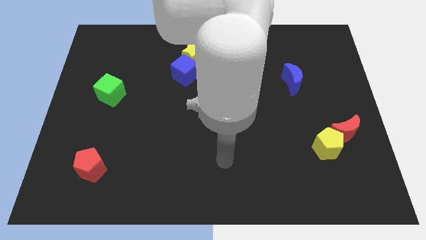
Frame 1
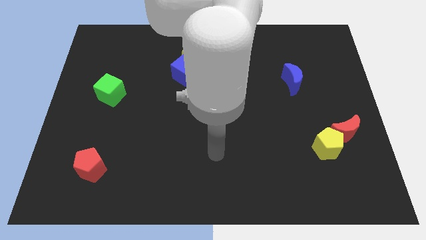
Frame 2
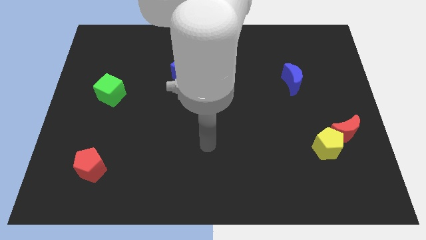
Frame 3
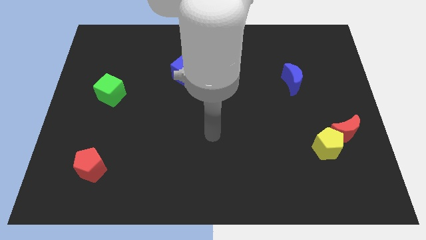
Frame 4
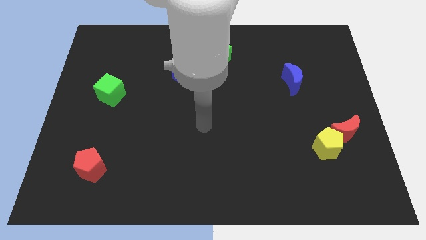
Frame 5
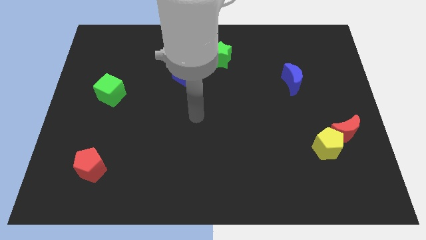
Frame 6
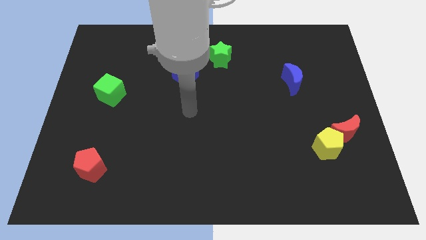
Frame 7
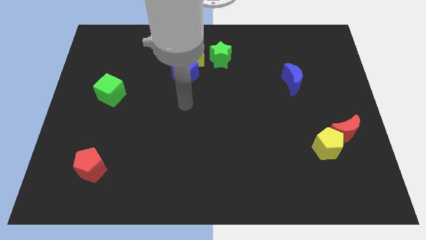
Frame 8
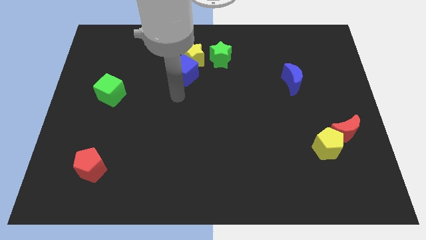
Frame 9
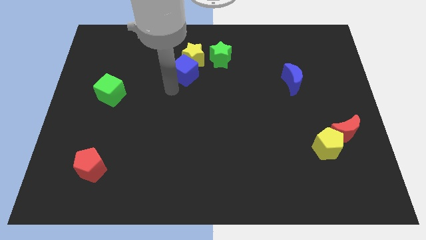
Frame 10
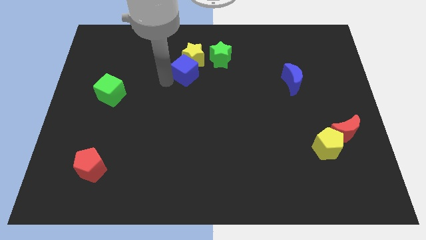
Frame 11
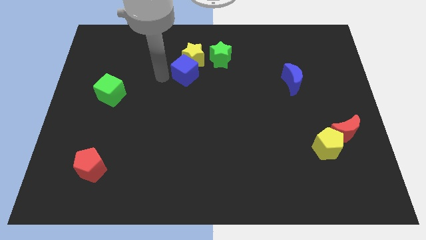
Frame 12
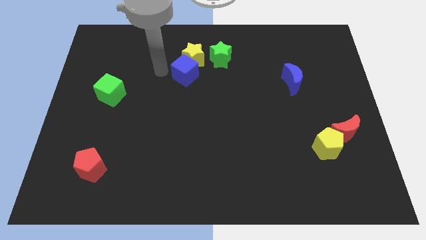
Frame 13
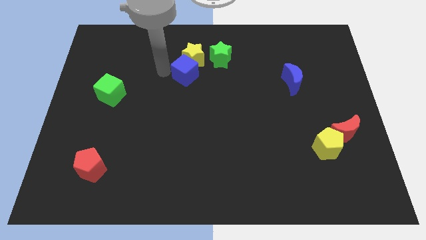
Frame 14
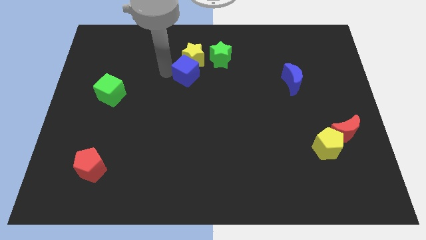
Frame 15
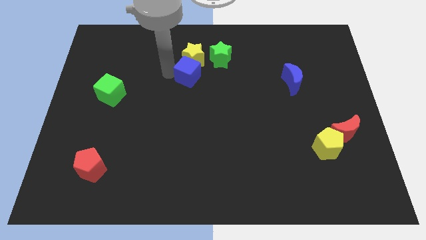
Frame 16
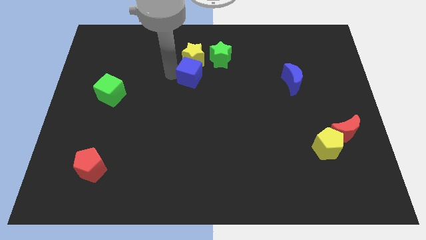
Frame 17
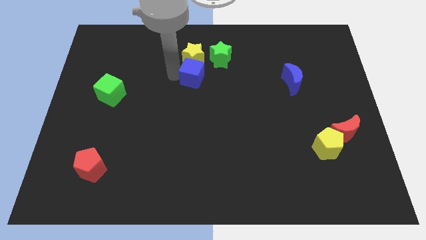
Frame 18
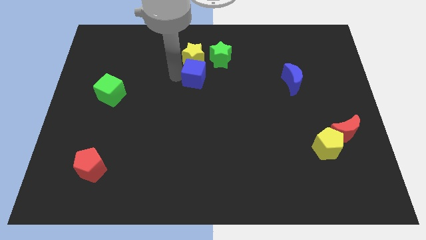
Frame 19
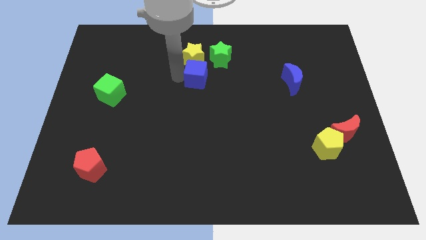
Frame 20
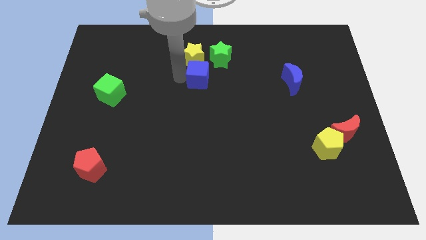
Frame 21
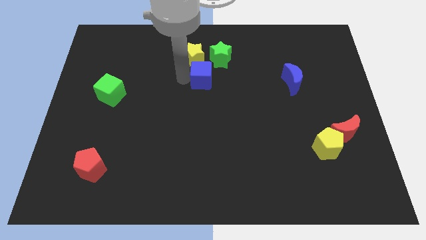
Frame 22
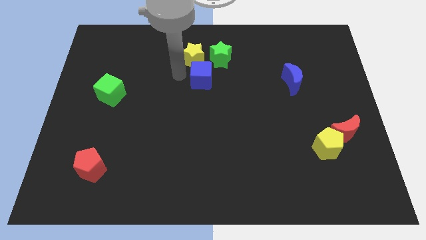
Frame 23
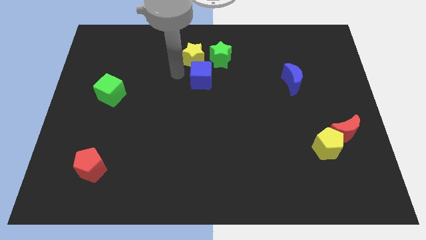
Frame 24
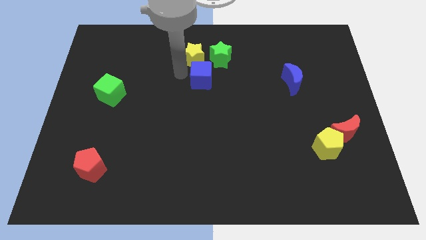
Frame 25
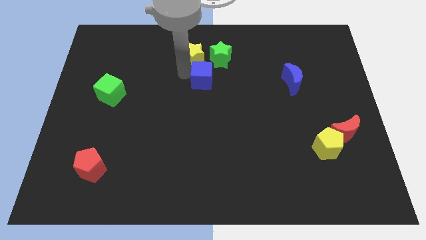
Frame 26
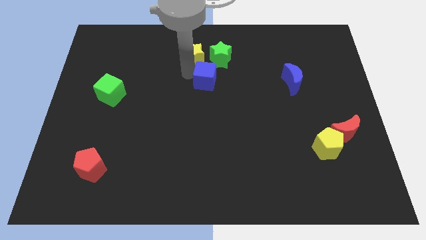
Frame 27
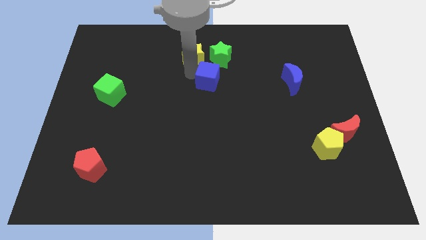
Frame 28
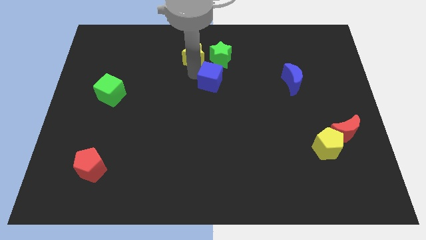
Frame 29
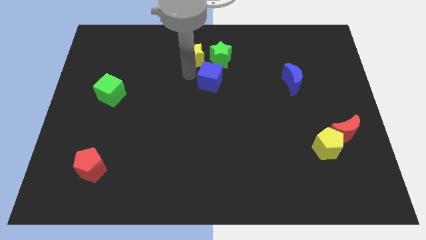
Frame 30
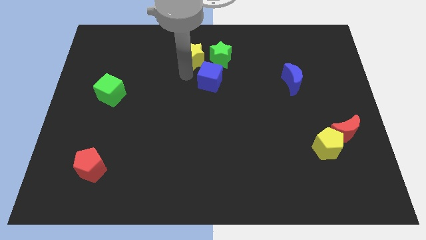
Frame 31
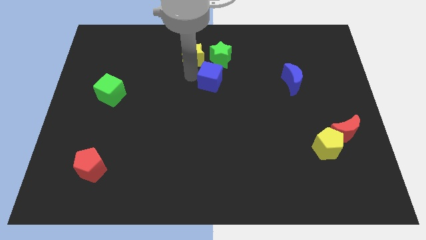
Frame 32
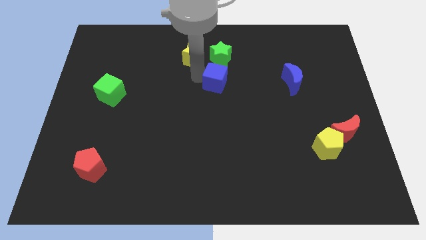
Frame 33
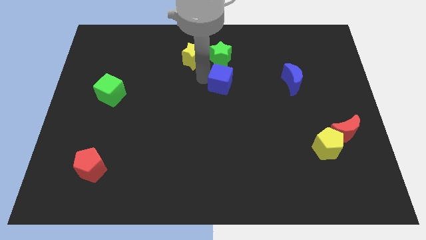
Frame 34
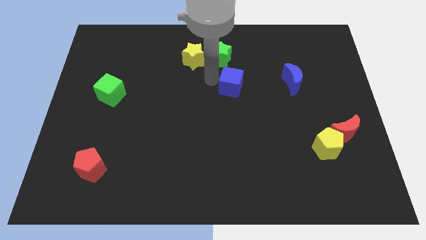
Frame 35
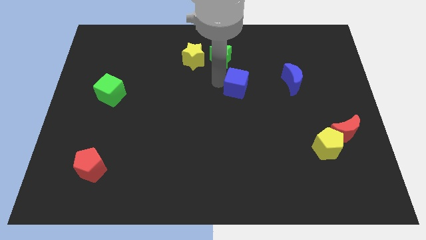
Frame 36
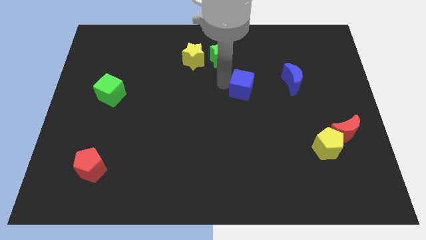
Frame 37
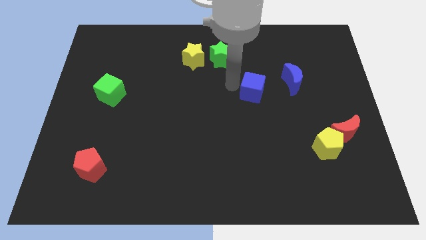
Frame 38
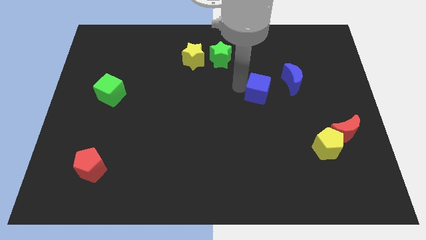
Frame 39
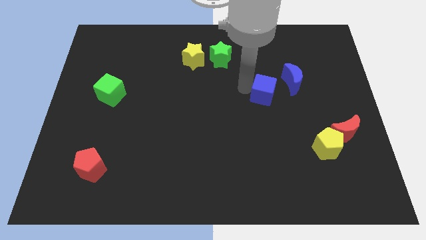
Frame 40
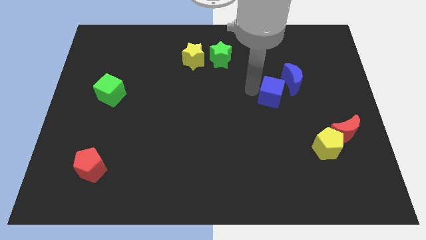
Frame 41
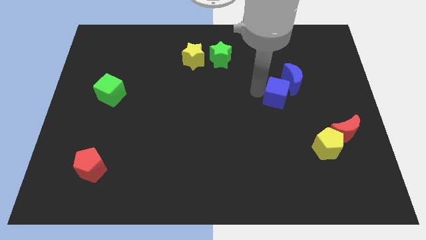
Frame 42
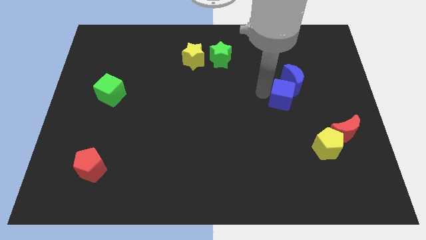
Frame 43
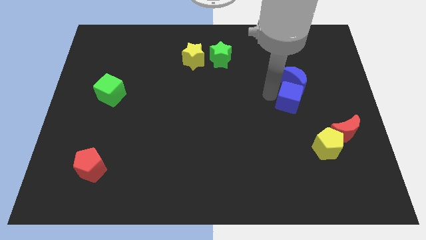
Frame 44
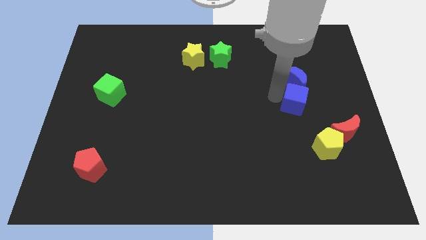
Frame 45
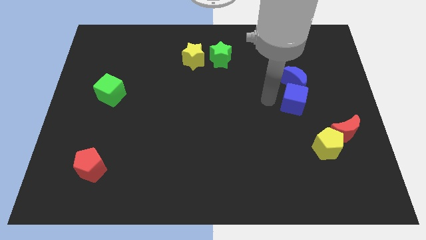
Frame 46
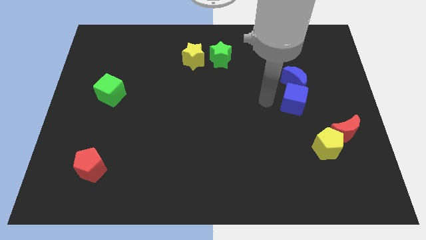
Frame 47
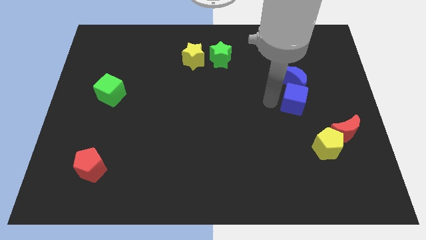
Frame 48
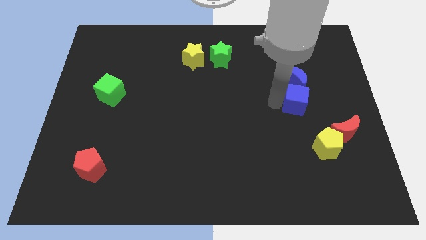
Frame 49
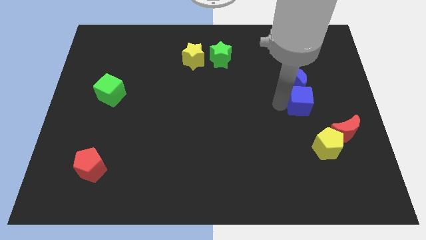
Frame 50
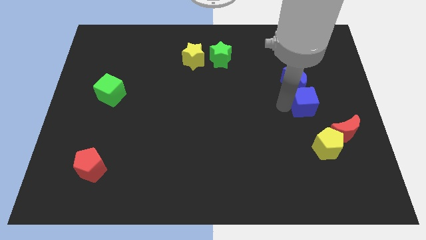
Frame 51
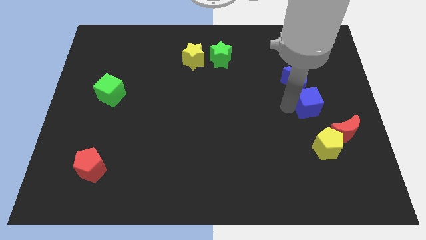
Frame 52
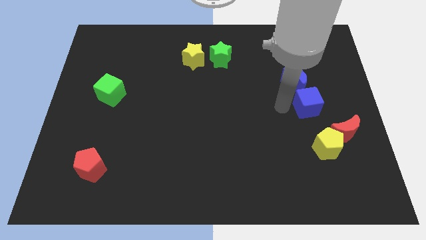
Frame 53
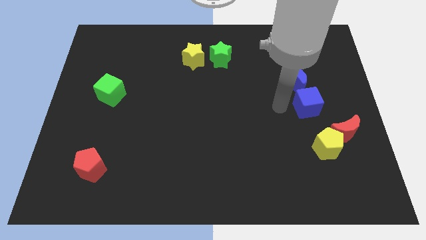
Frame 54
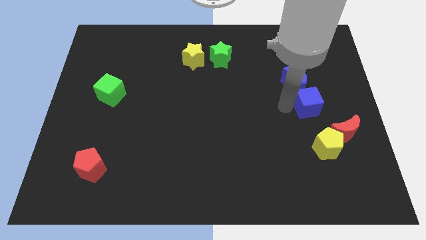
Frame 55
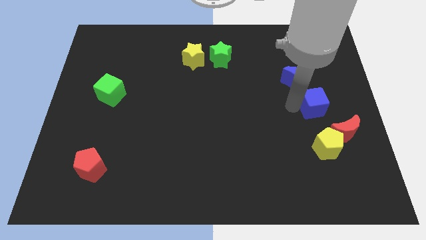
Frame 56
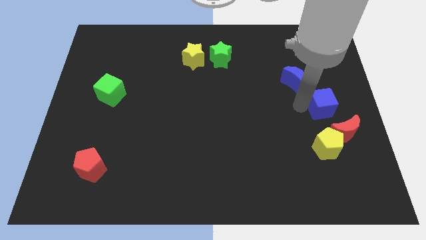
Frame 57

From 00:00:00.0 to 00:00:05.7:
push the blue cube to the right side

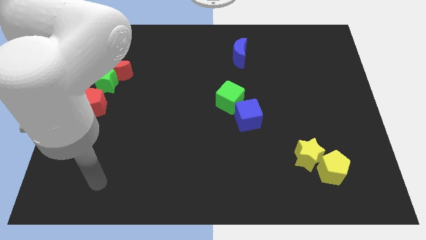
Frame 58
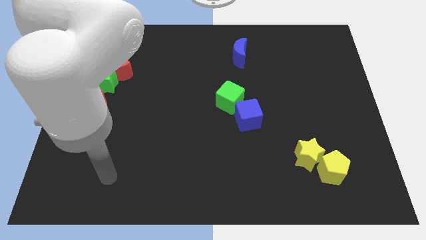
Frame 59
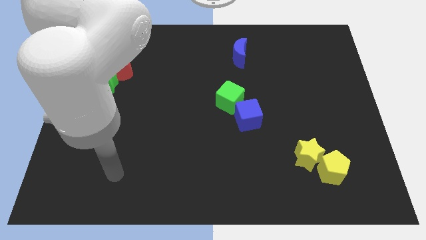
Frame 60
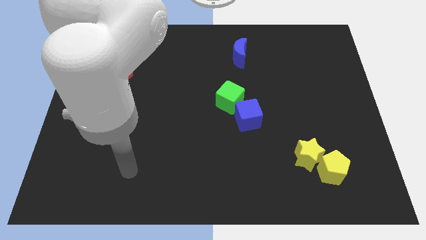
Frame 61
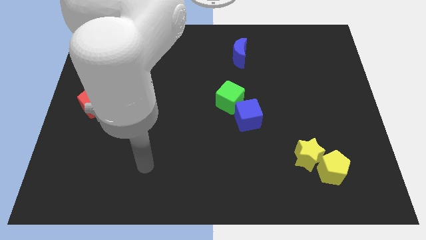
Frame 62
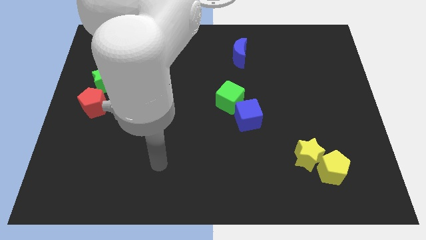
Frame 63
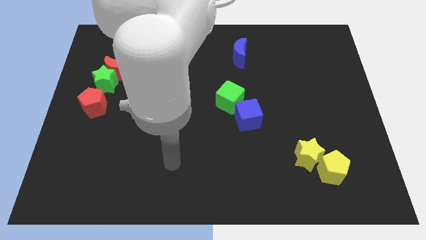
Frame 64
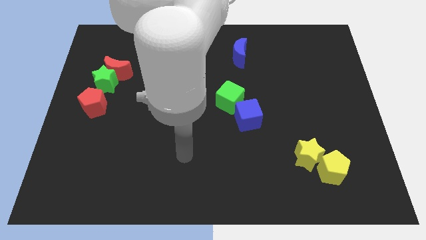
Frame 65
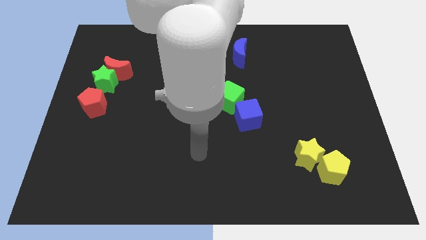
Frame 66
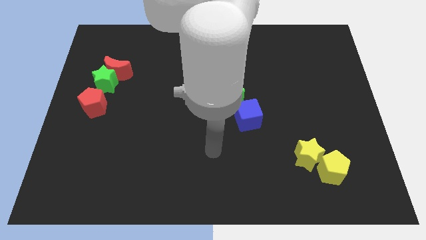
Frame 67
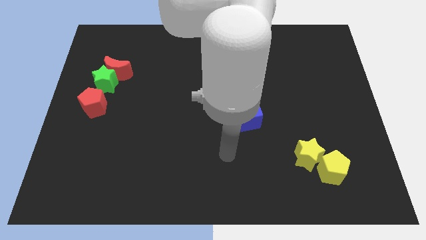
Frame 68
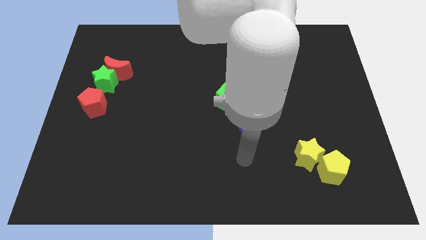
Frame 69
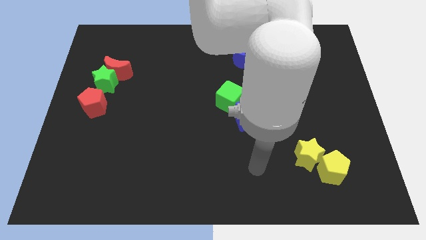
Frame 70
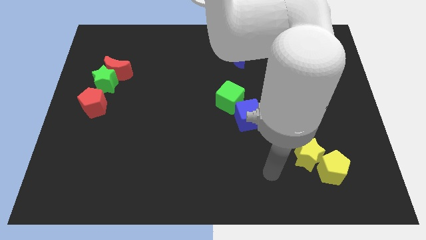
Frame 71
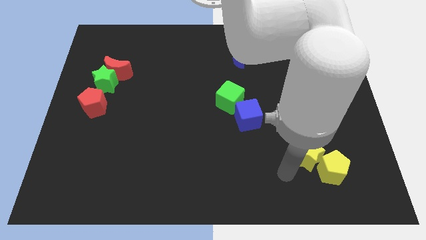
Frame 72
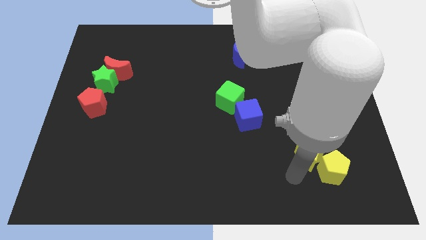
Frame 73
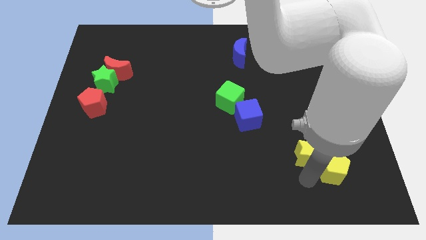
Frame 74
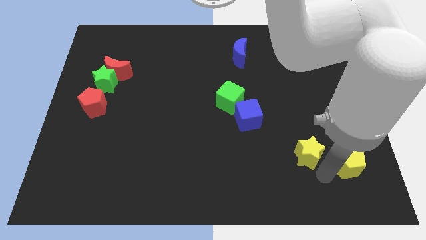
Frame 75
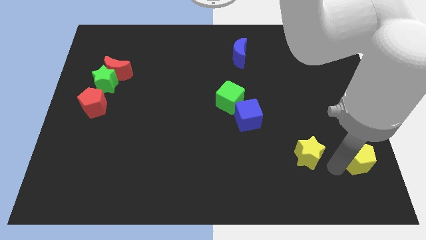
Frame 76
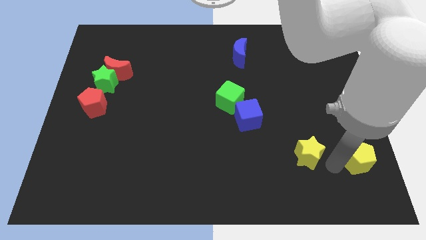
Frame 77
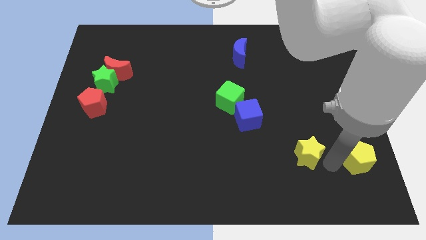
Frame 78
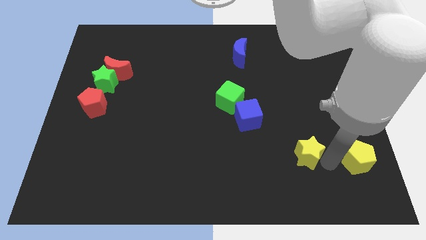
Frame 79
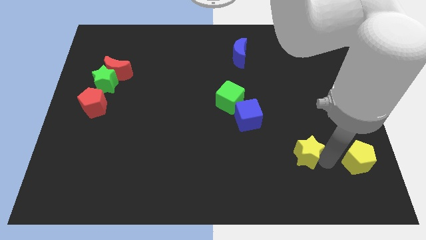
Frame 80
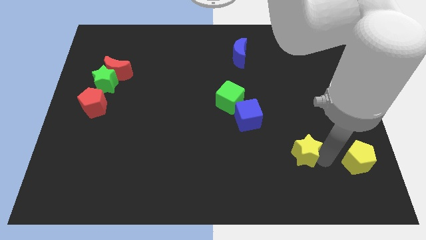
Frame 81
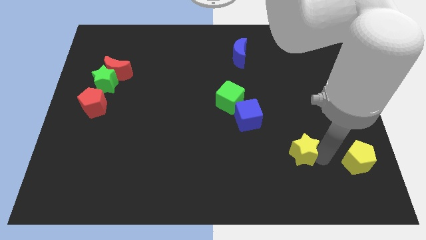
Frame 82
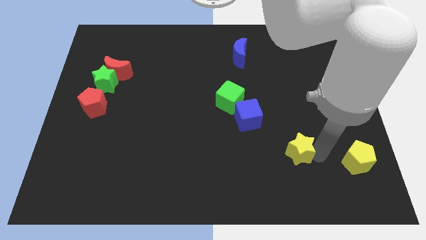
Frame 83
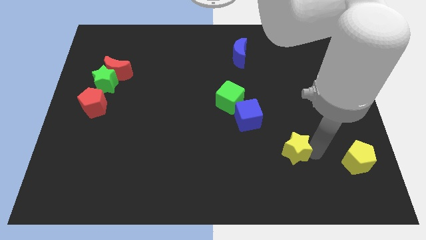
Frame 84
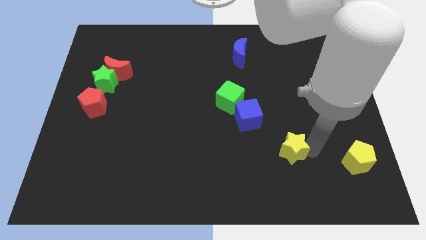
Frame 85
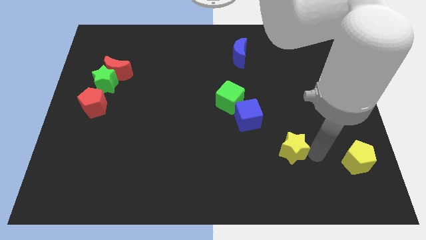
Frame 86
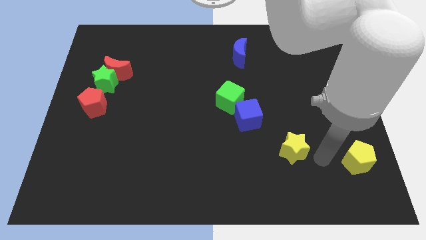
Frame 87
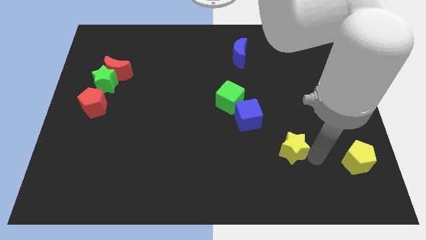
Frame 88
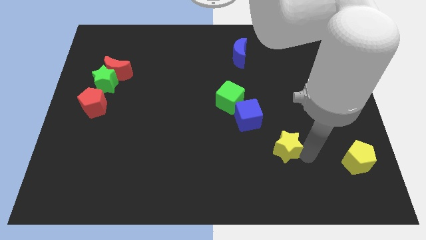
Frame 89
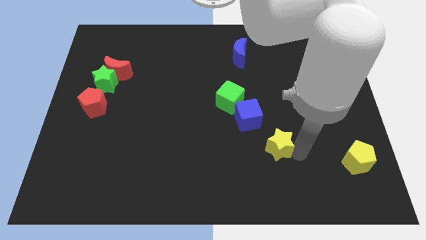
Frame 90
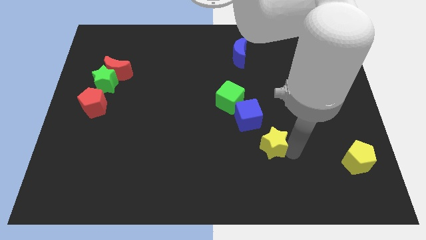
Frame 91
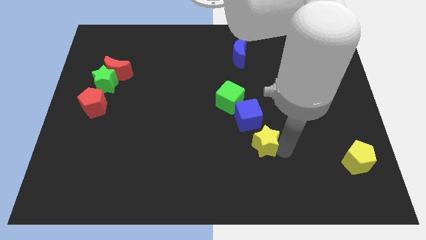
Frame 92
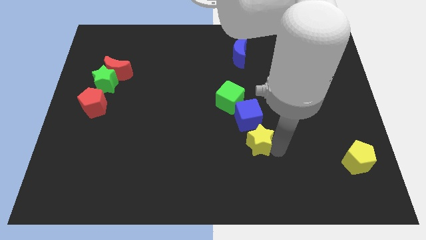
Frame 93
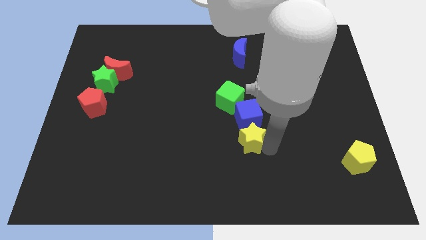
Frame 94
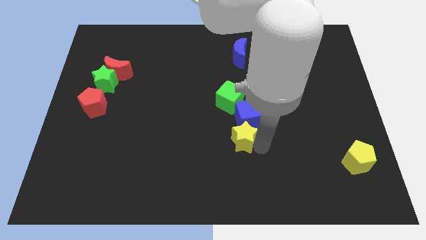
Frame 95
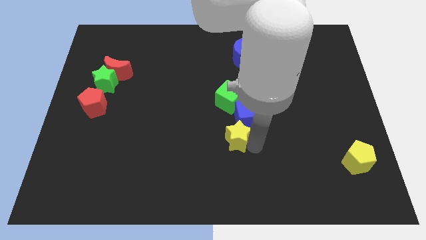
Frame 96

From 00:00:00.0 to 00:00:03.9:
put the yellow star to the center
